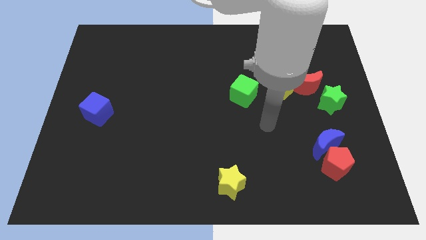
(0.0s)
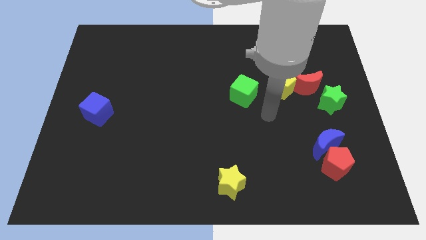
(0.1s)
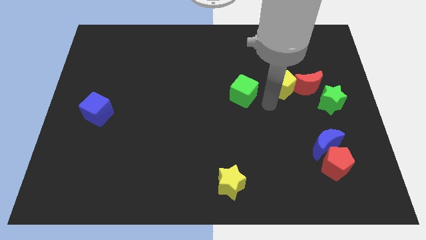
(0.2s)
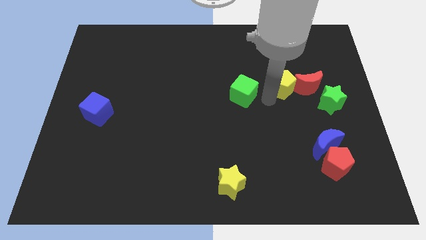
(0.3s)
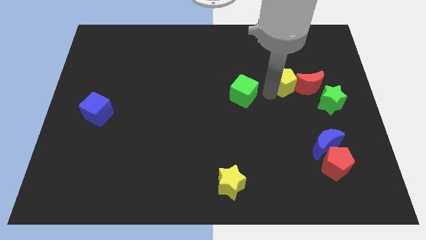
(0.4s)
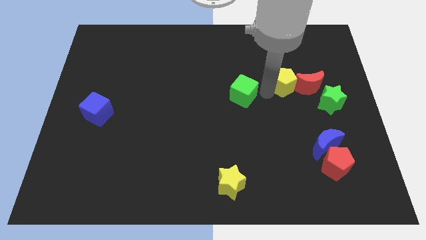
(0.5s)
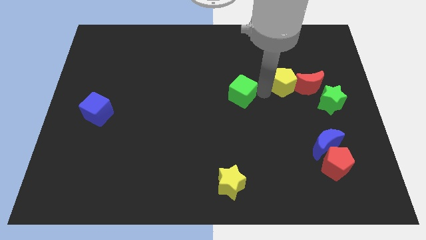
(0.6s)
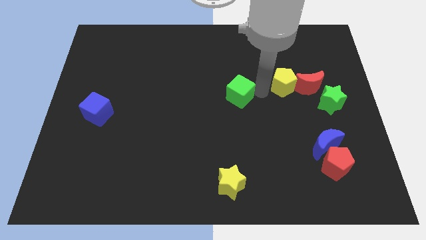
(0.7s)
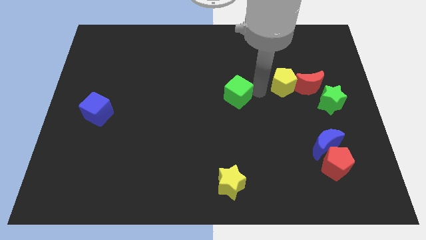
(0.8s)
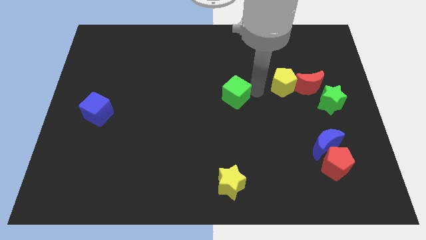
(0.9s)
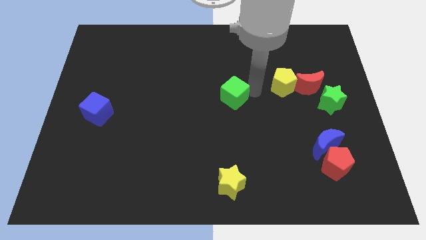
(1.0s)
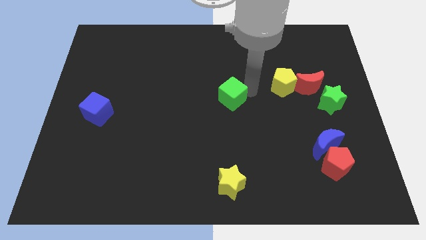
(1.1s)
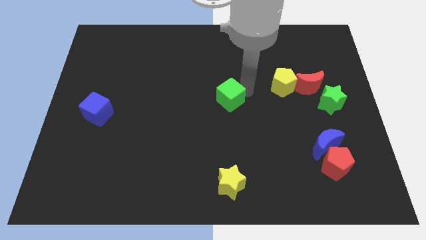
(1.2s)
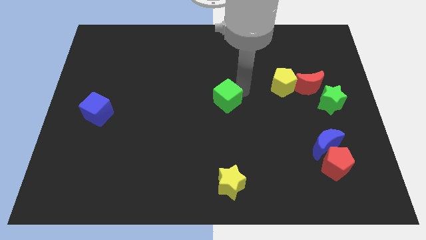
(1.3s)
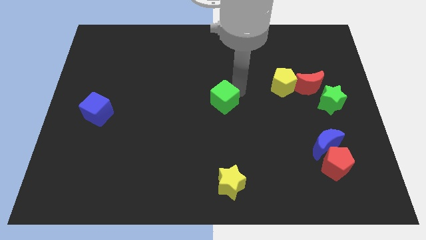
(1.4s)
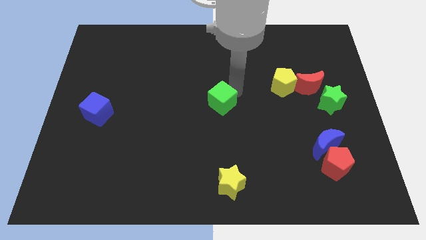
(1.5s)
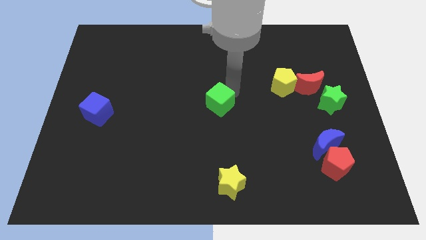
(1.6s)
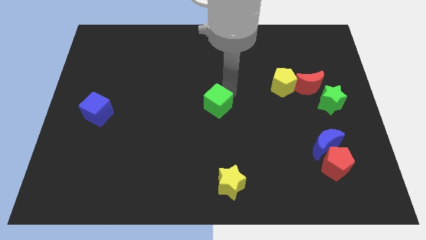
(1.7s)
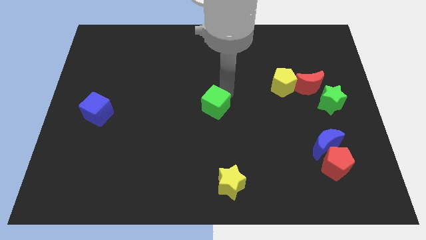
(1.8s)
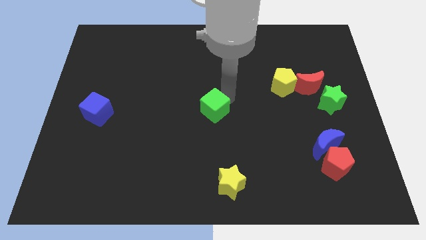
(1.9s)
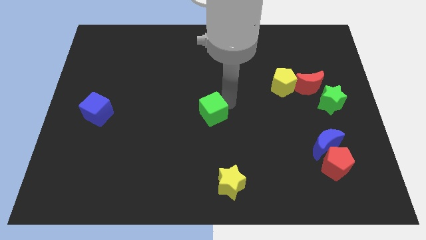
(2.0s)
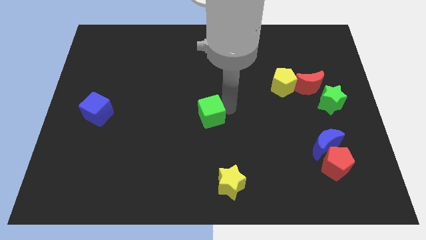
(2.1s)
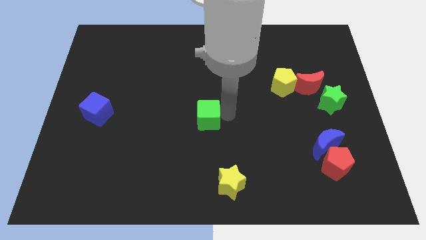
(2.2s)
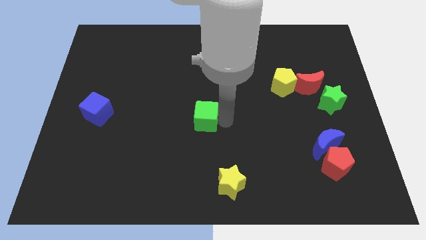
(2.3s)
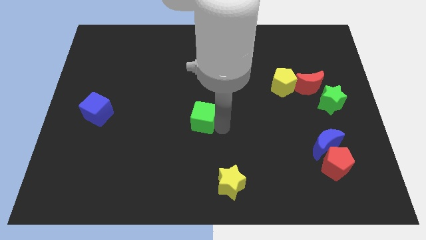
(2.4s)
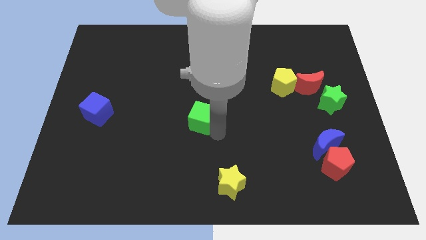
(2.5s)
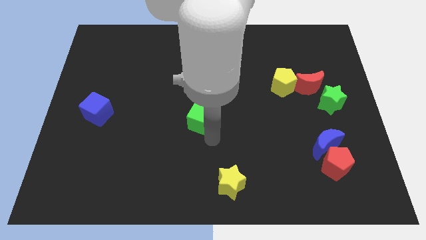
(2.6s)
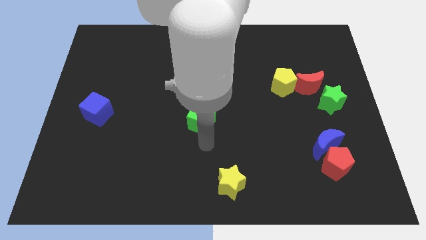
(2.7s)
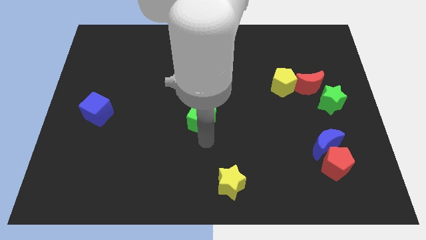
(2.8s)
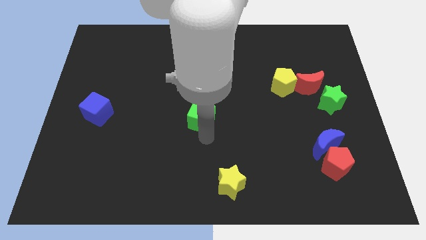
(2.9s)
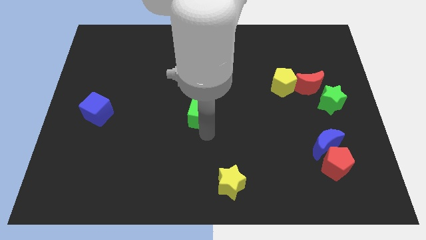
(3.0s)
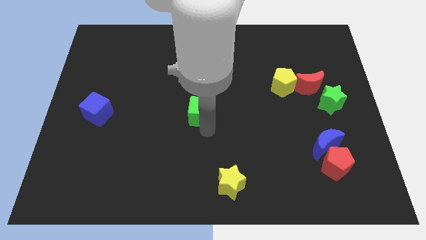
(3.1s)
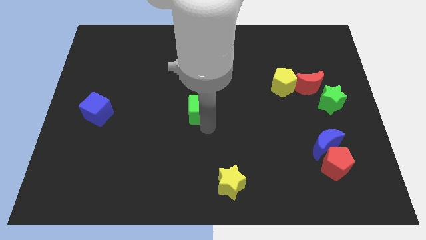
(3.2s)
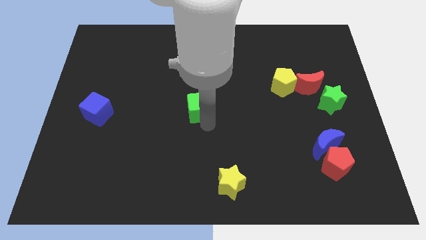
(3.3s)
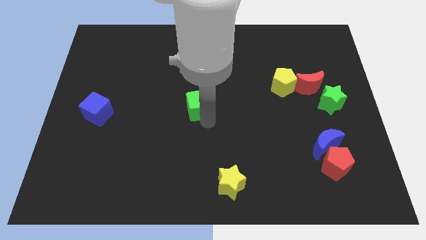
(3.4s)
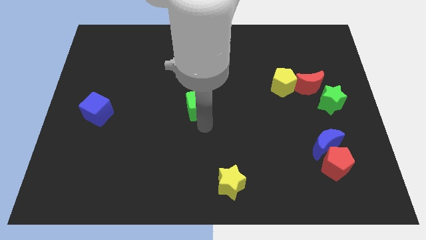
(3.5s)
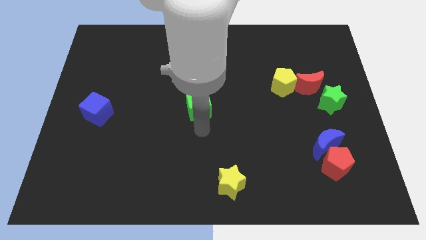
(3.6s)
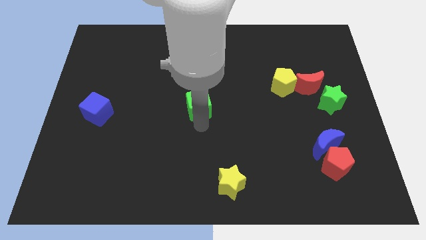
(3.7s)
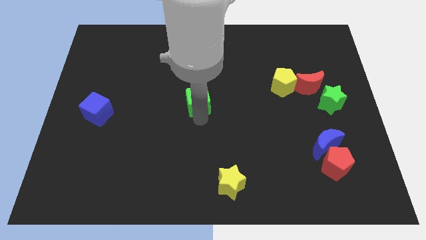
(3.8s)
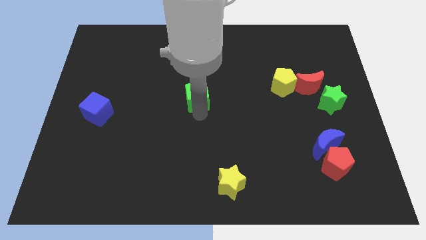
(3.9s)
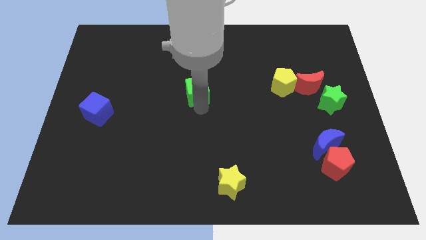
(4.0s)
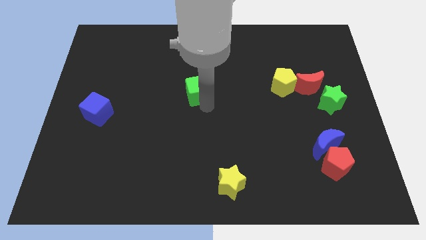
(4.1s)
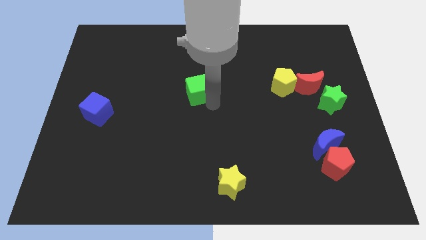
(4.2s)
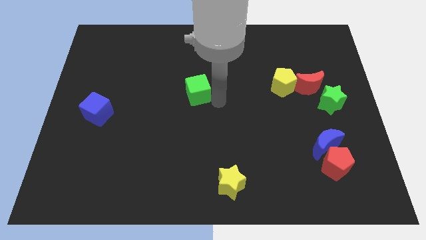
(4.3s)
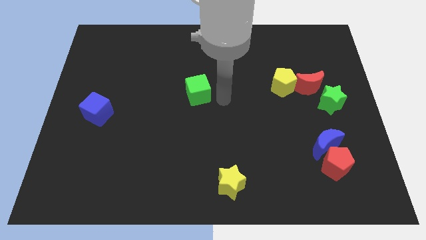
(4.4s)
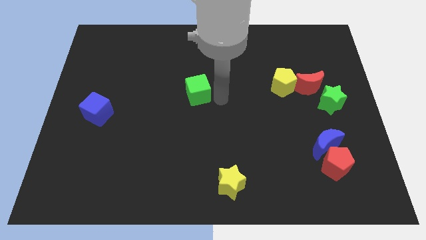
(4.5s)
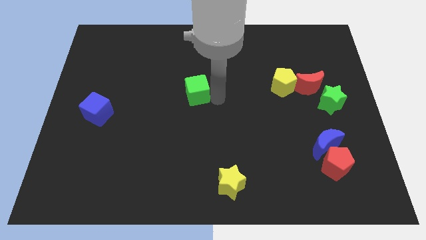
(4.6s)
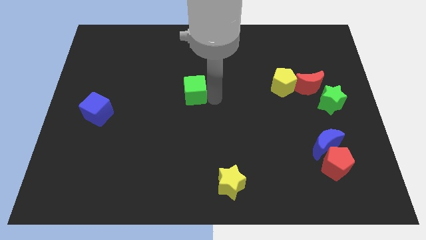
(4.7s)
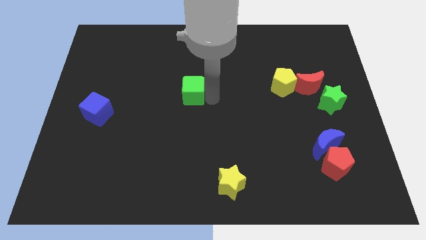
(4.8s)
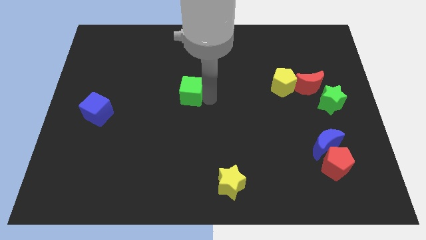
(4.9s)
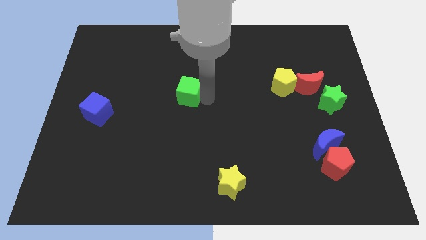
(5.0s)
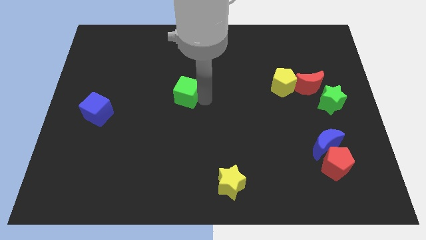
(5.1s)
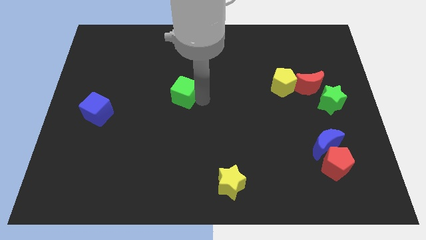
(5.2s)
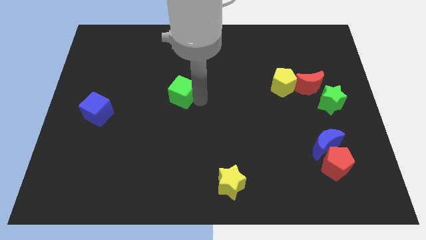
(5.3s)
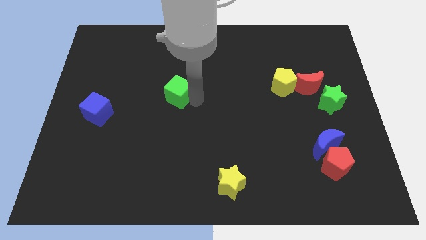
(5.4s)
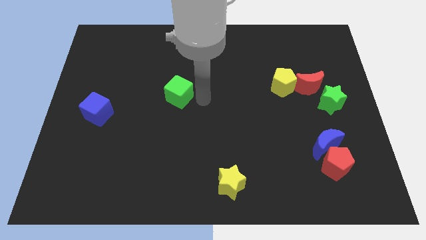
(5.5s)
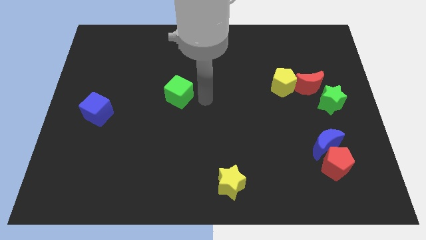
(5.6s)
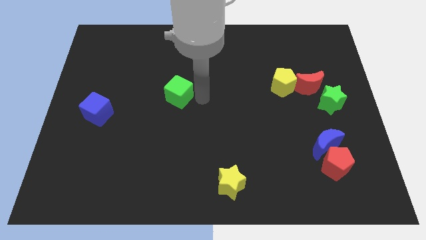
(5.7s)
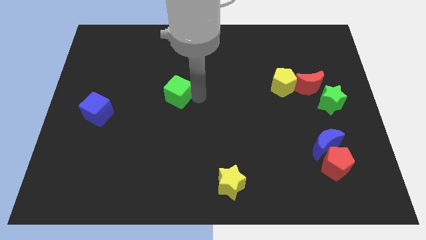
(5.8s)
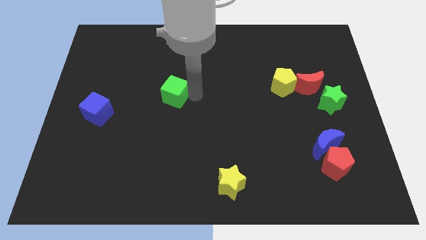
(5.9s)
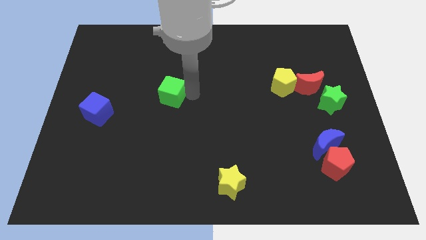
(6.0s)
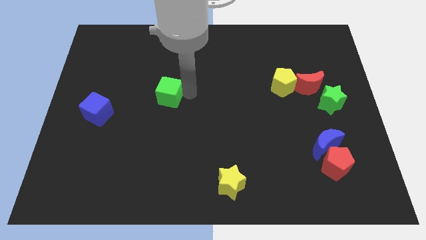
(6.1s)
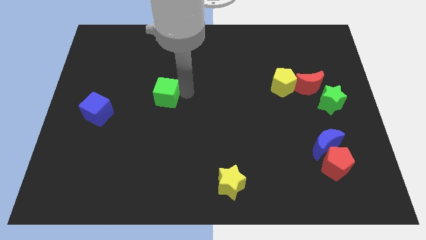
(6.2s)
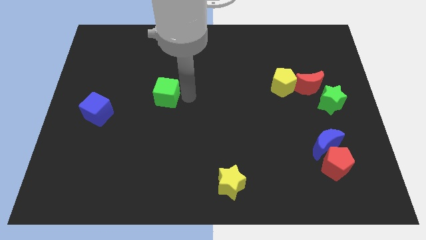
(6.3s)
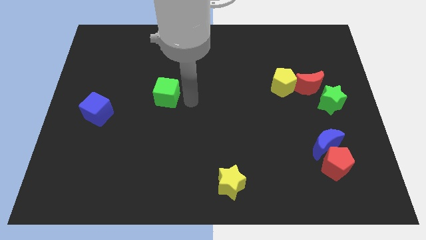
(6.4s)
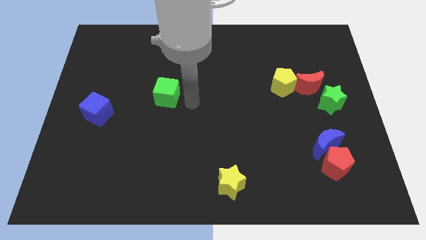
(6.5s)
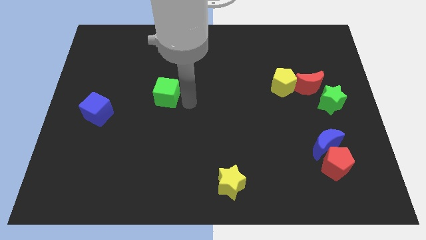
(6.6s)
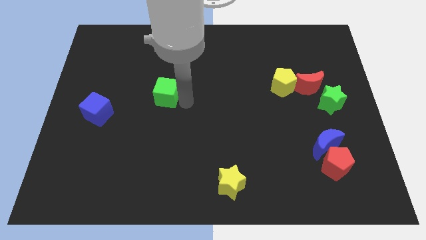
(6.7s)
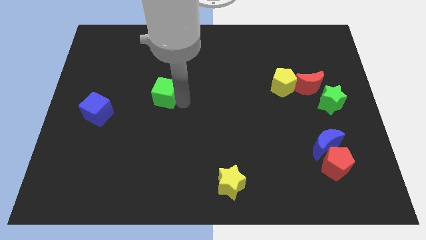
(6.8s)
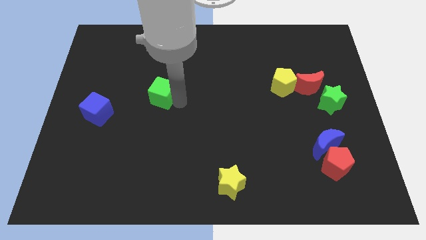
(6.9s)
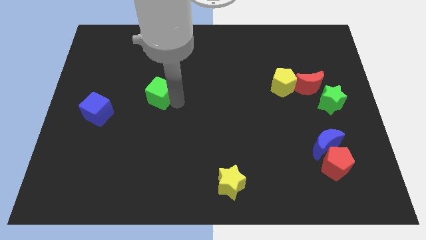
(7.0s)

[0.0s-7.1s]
move the green cube to the left

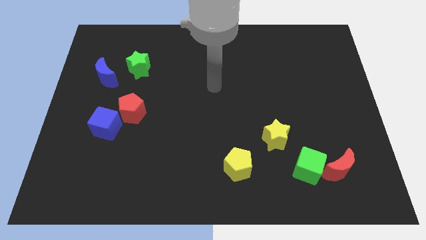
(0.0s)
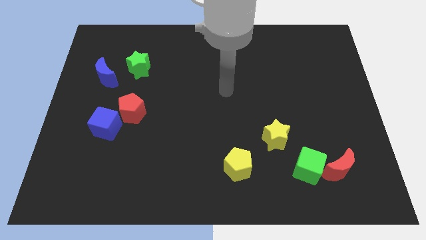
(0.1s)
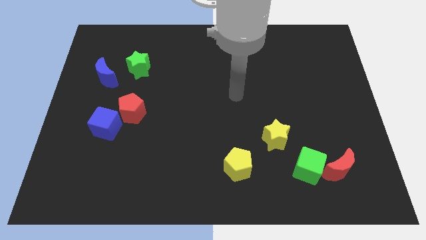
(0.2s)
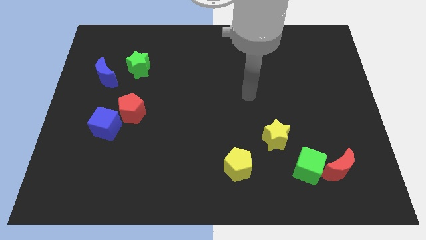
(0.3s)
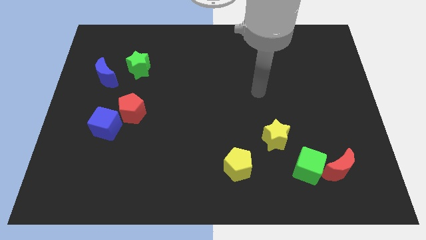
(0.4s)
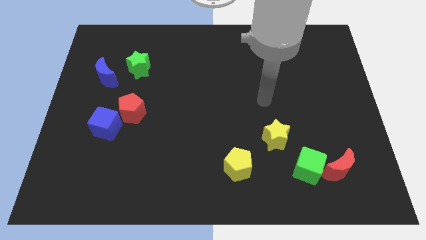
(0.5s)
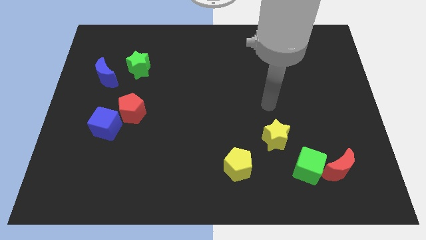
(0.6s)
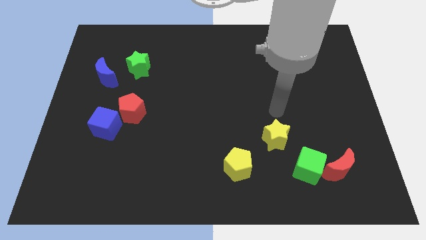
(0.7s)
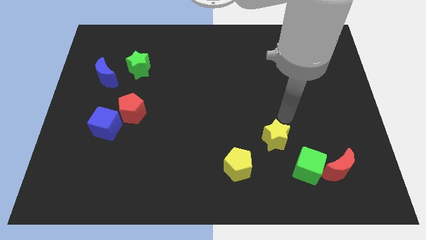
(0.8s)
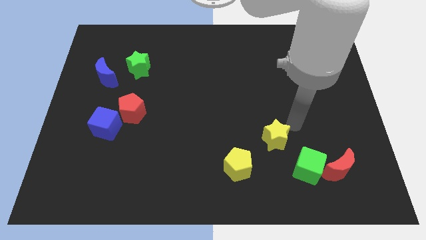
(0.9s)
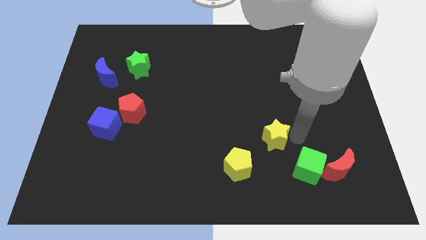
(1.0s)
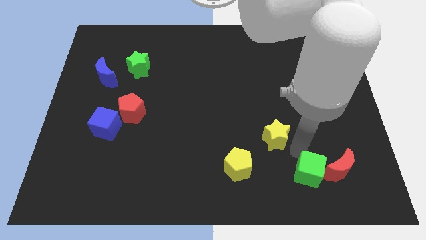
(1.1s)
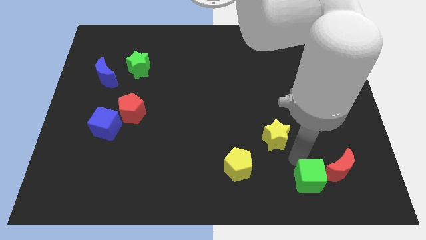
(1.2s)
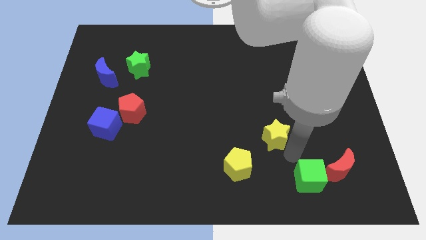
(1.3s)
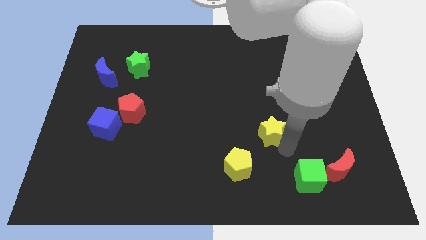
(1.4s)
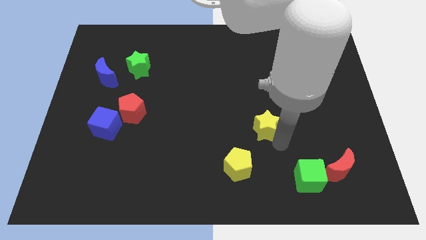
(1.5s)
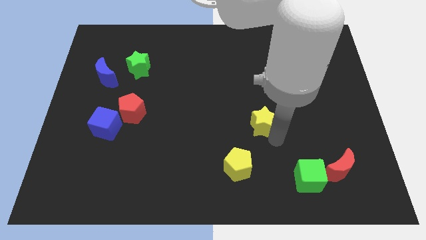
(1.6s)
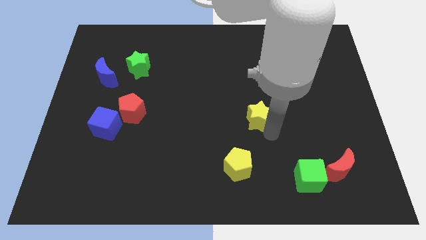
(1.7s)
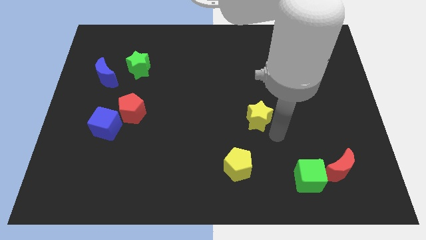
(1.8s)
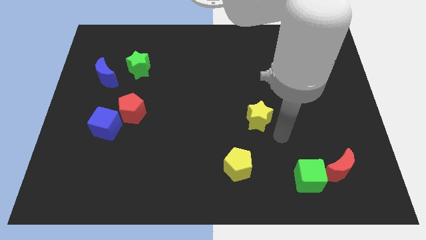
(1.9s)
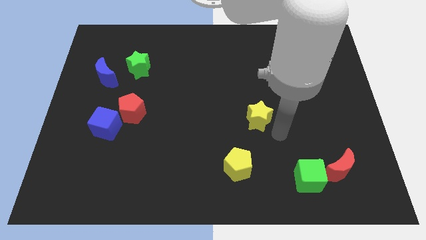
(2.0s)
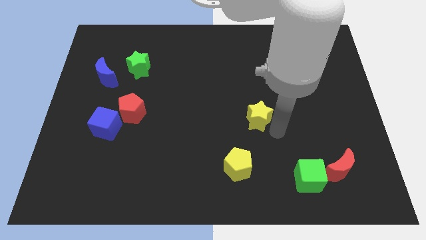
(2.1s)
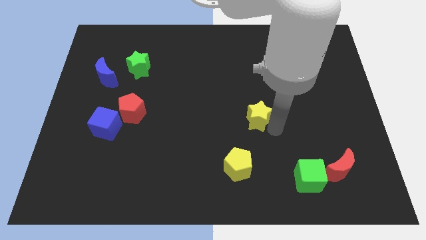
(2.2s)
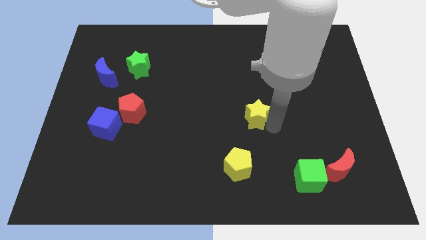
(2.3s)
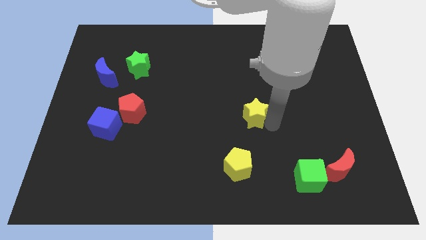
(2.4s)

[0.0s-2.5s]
move the yellow star somewhat up and then left
